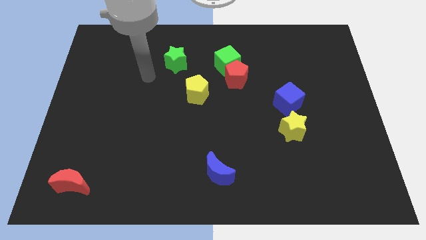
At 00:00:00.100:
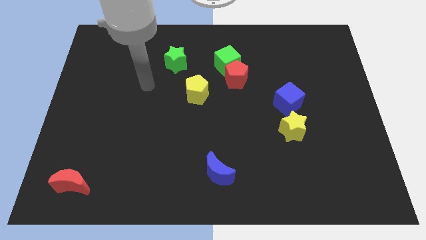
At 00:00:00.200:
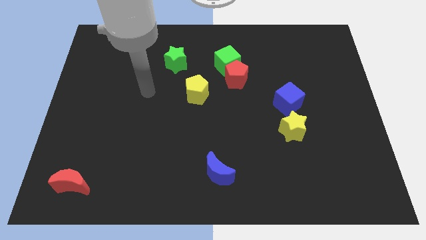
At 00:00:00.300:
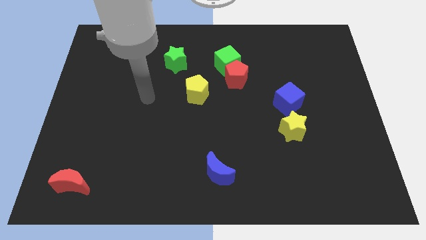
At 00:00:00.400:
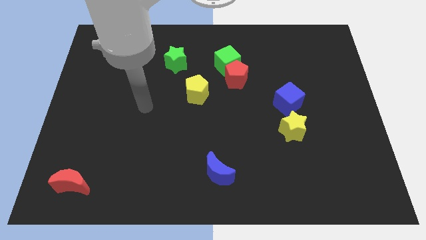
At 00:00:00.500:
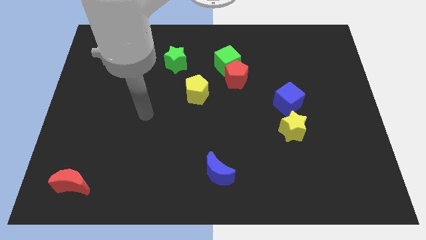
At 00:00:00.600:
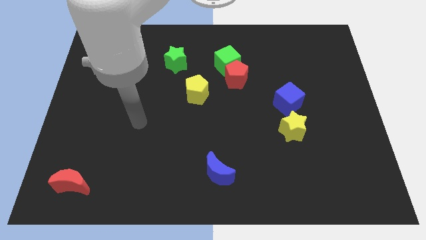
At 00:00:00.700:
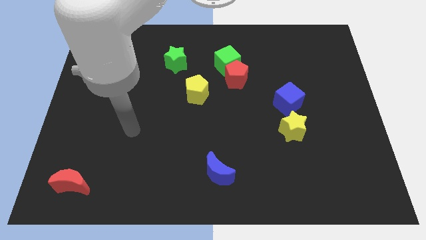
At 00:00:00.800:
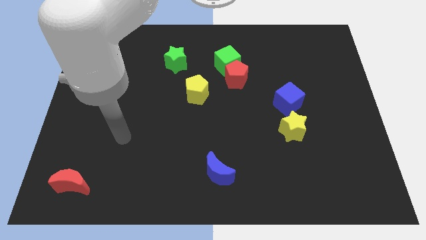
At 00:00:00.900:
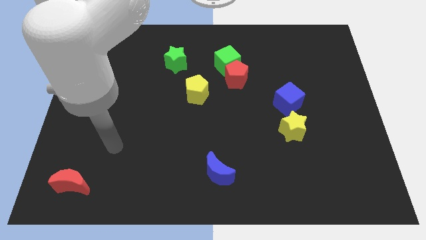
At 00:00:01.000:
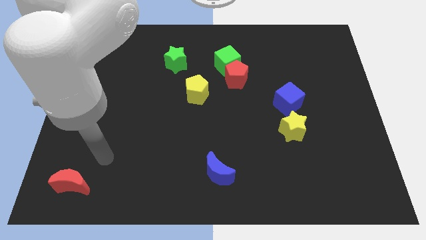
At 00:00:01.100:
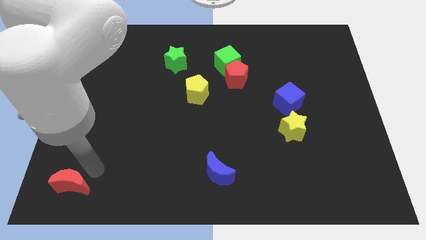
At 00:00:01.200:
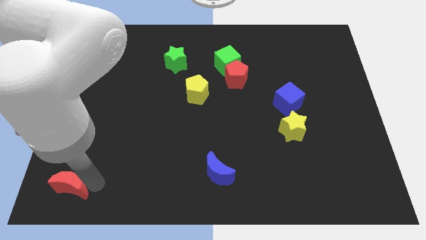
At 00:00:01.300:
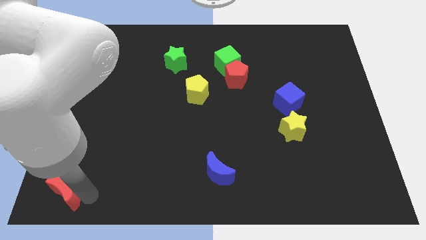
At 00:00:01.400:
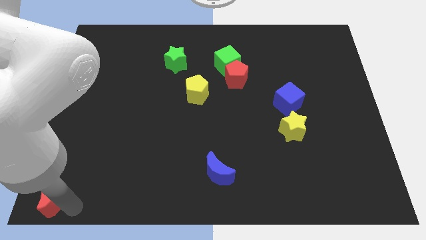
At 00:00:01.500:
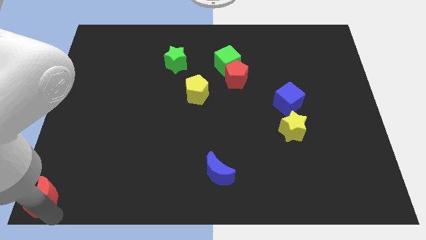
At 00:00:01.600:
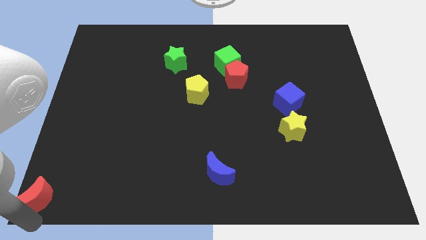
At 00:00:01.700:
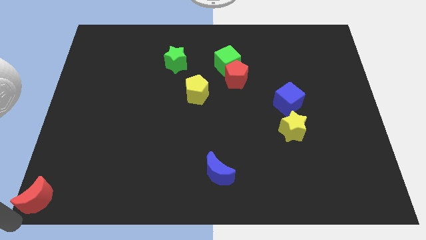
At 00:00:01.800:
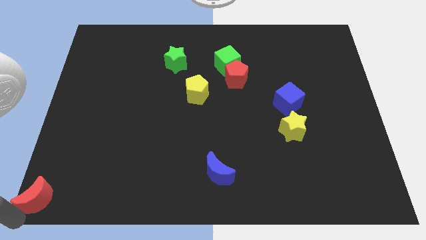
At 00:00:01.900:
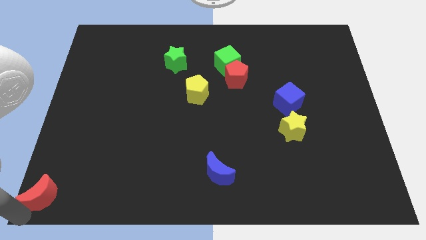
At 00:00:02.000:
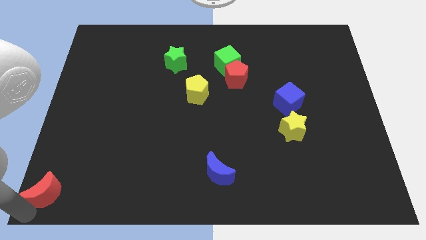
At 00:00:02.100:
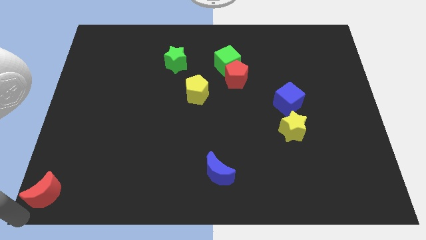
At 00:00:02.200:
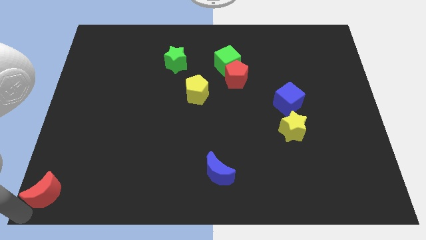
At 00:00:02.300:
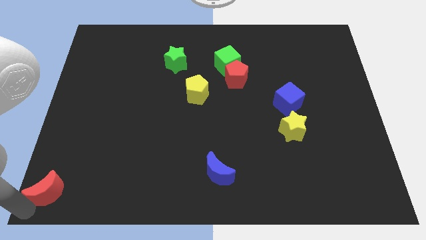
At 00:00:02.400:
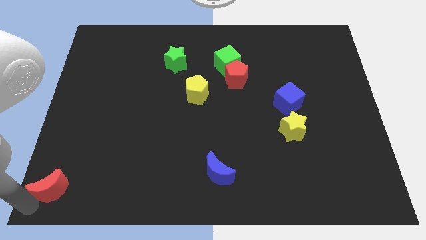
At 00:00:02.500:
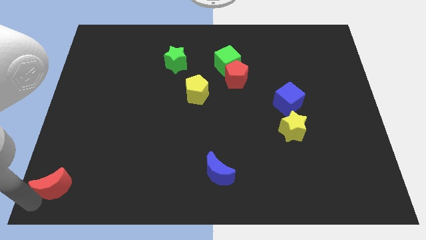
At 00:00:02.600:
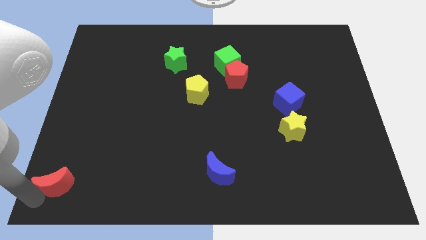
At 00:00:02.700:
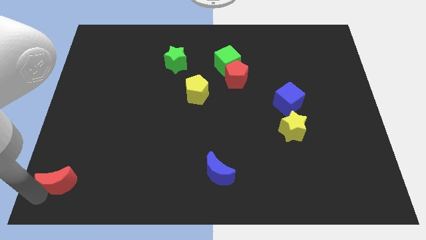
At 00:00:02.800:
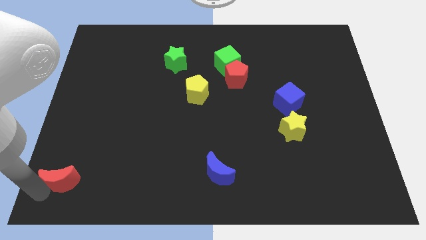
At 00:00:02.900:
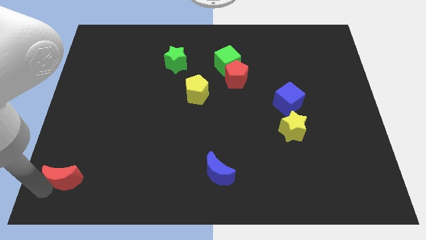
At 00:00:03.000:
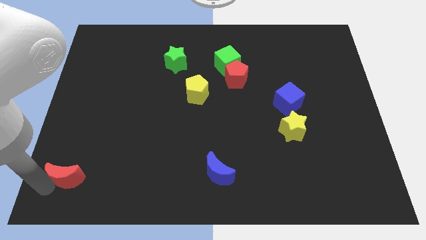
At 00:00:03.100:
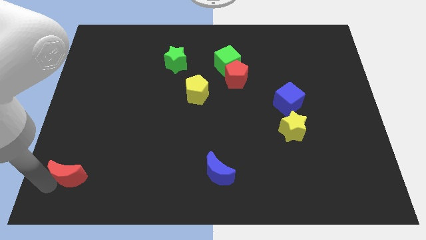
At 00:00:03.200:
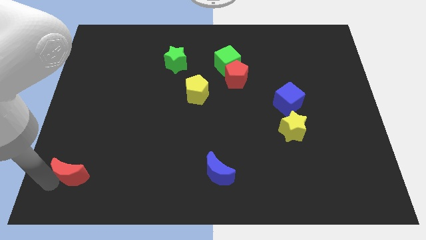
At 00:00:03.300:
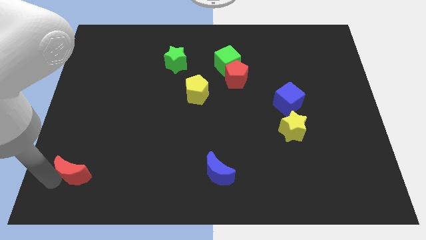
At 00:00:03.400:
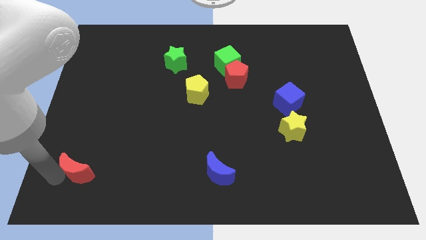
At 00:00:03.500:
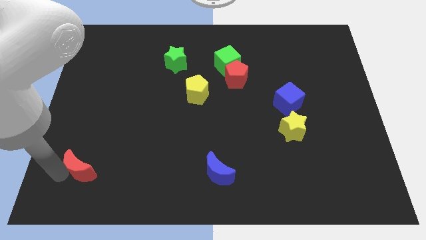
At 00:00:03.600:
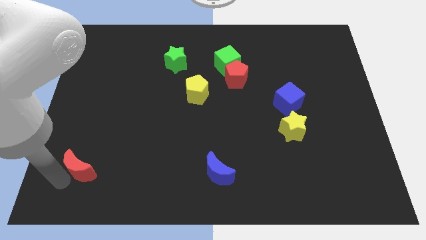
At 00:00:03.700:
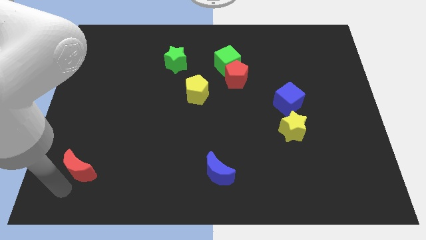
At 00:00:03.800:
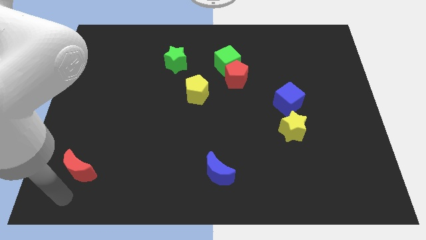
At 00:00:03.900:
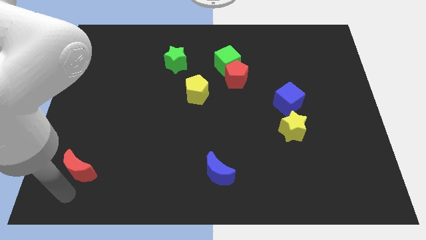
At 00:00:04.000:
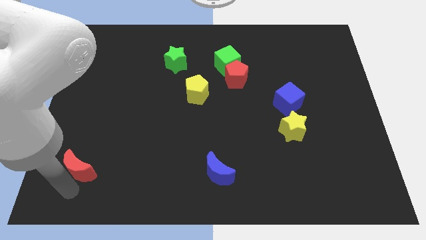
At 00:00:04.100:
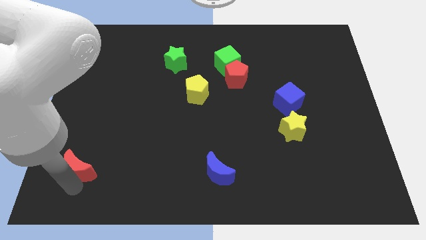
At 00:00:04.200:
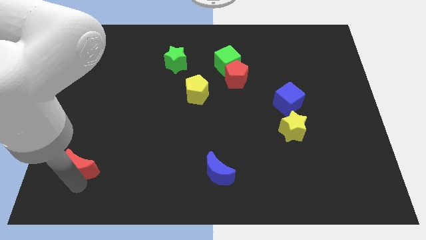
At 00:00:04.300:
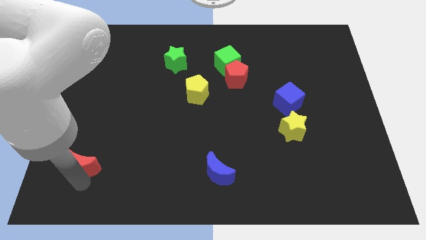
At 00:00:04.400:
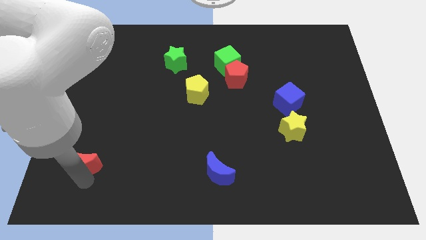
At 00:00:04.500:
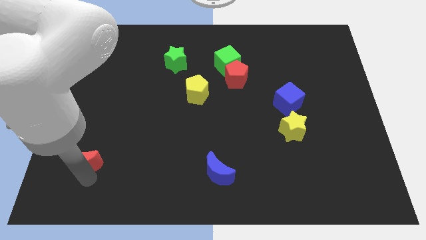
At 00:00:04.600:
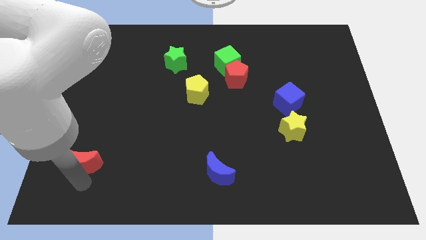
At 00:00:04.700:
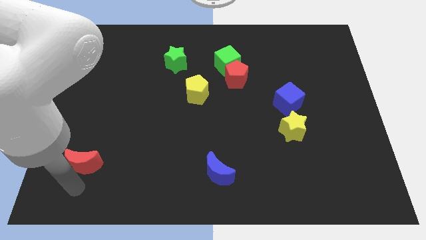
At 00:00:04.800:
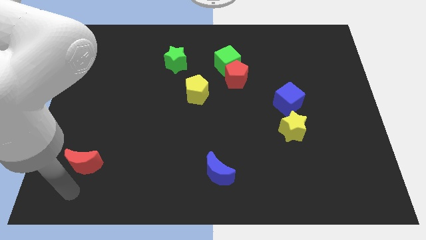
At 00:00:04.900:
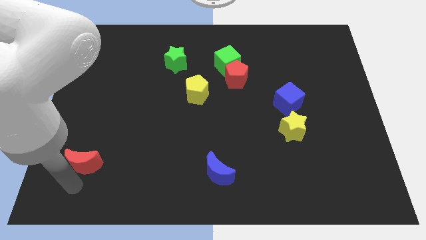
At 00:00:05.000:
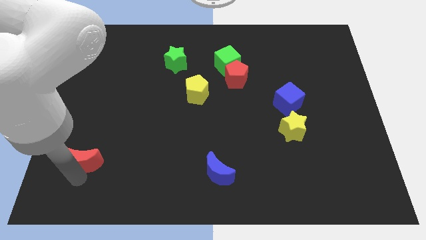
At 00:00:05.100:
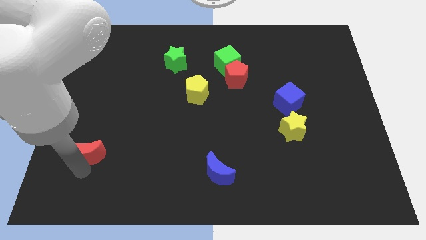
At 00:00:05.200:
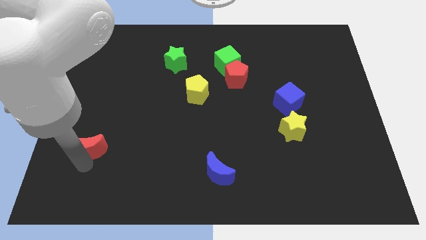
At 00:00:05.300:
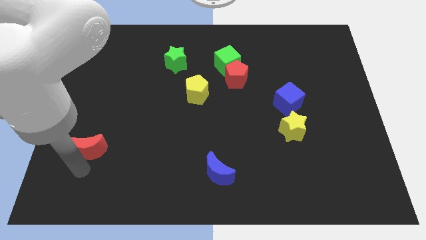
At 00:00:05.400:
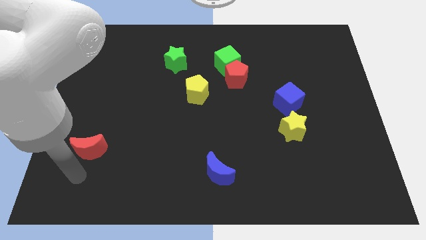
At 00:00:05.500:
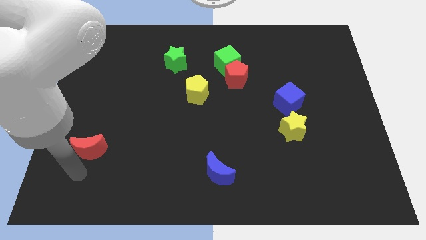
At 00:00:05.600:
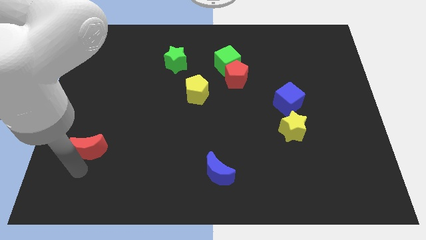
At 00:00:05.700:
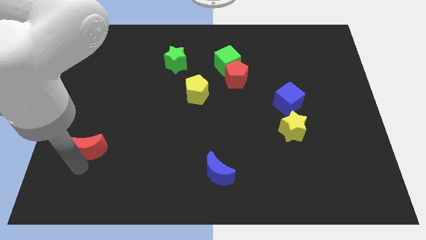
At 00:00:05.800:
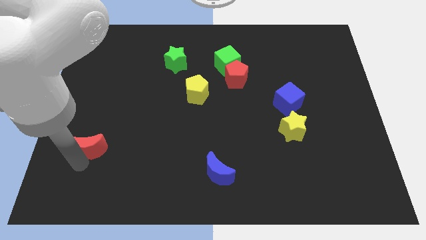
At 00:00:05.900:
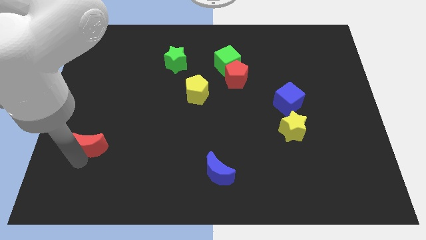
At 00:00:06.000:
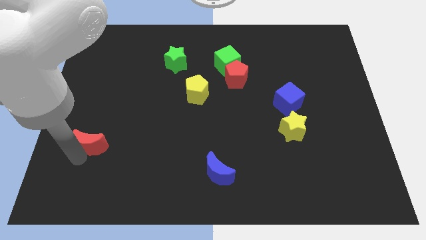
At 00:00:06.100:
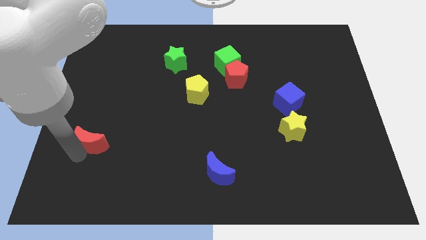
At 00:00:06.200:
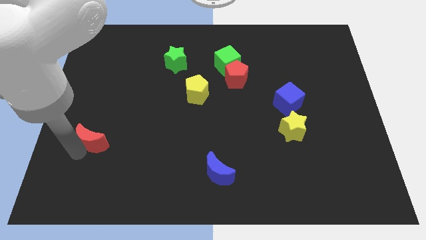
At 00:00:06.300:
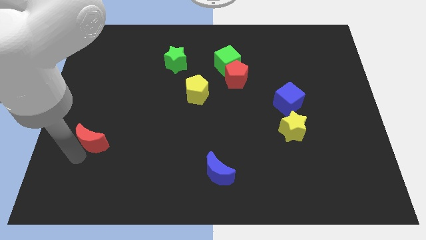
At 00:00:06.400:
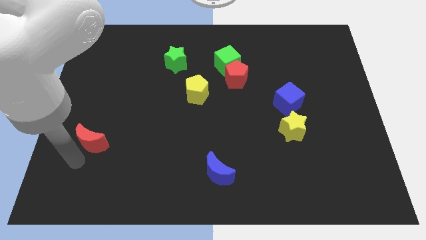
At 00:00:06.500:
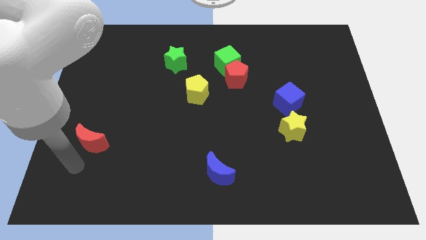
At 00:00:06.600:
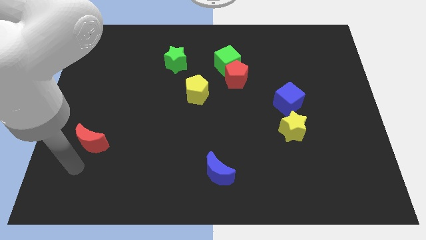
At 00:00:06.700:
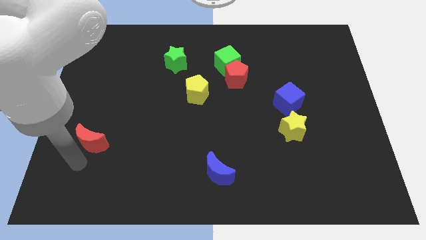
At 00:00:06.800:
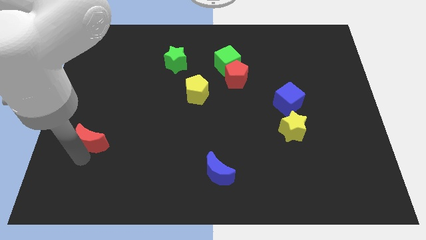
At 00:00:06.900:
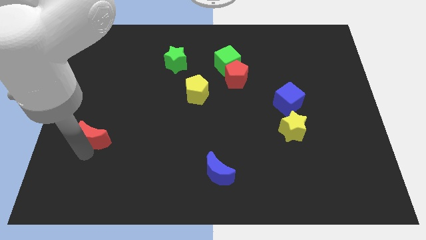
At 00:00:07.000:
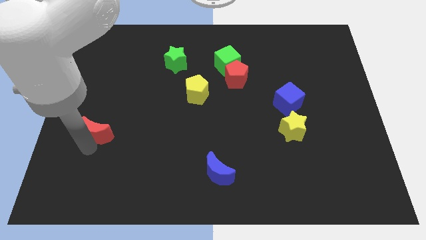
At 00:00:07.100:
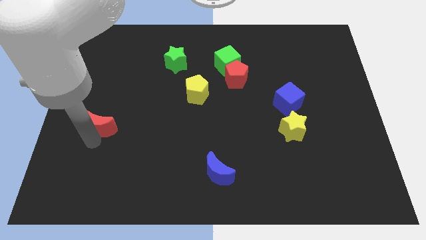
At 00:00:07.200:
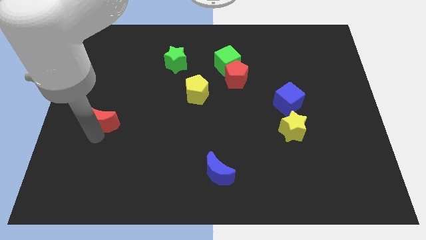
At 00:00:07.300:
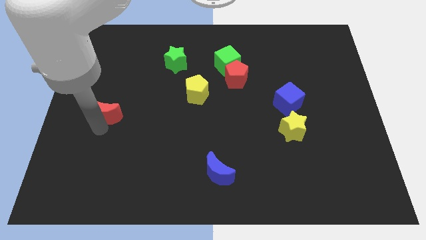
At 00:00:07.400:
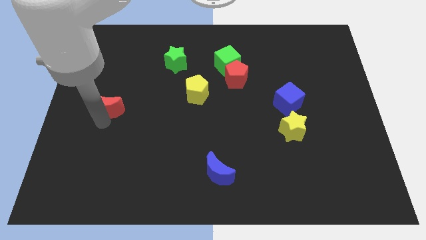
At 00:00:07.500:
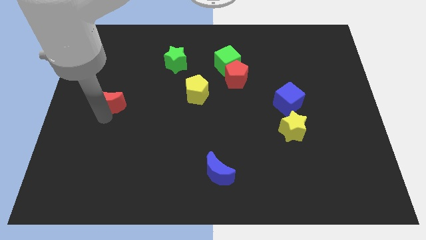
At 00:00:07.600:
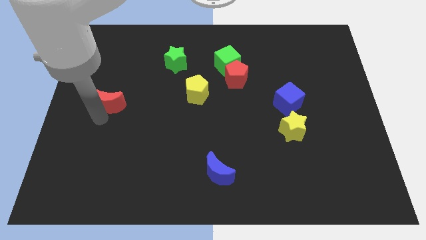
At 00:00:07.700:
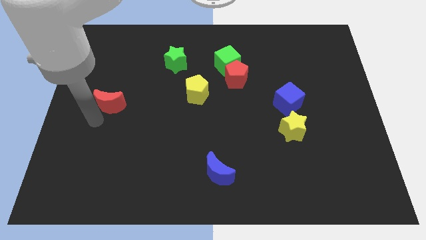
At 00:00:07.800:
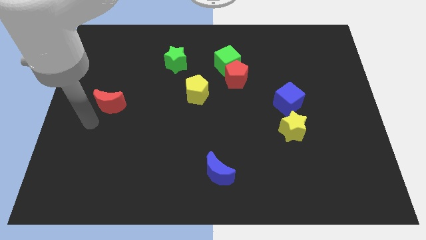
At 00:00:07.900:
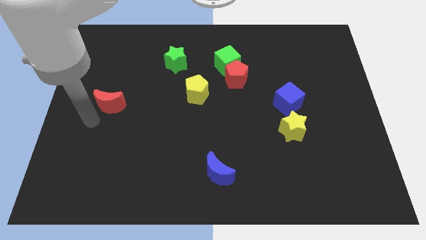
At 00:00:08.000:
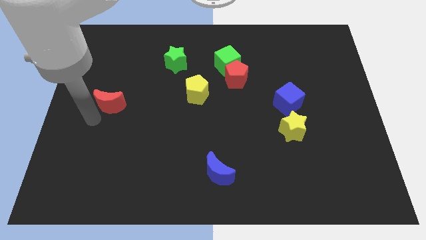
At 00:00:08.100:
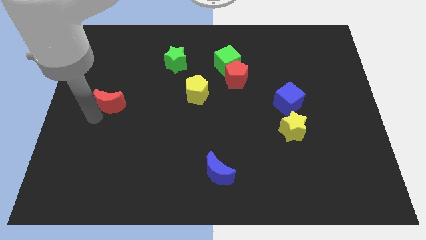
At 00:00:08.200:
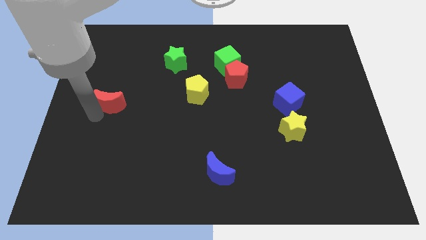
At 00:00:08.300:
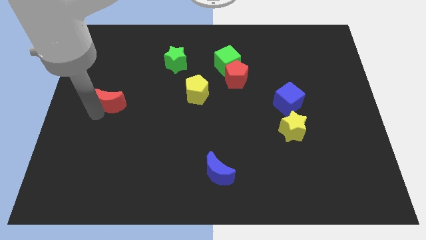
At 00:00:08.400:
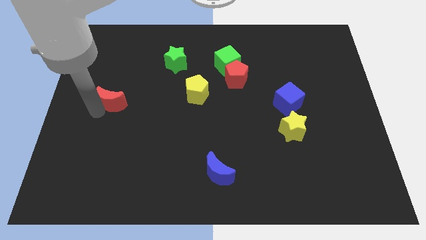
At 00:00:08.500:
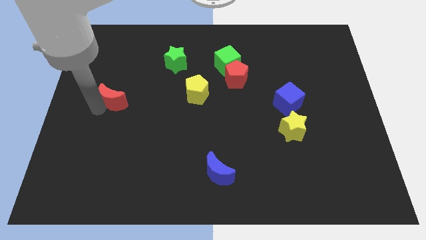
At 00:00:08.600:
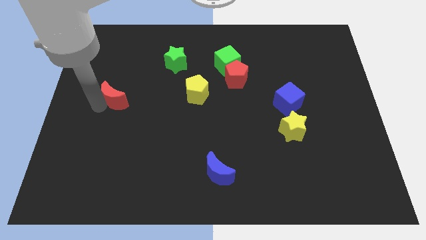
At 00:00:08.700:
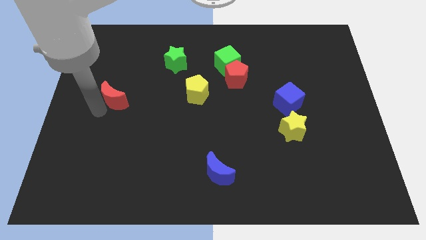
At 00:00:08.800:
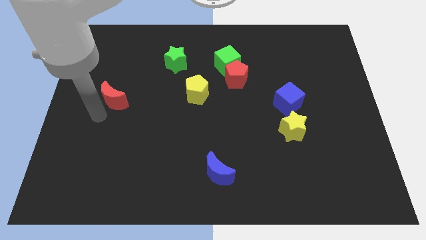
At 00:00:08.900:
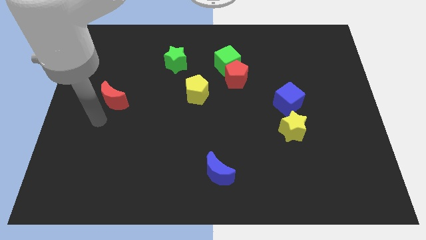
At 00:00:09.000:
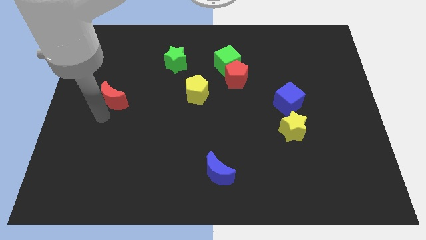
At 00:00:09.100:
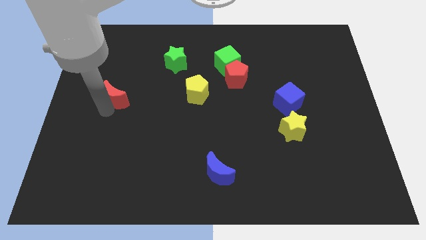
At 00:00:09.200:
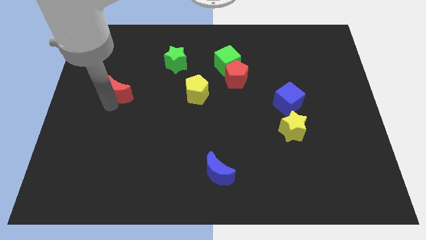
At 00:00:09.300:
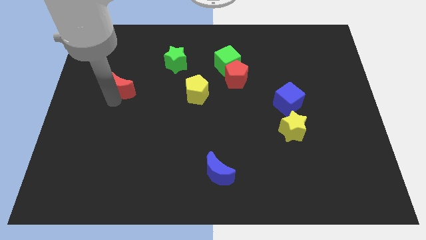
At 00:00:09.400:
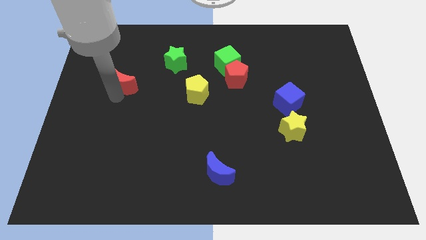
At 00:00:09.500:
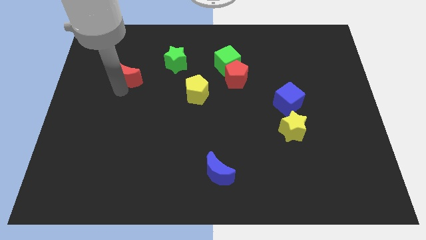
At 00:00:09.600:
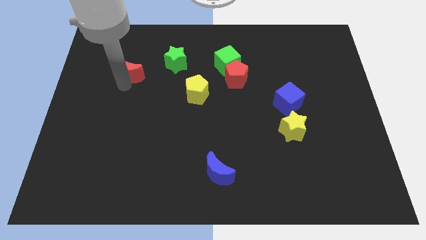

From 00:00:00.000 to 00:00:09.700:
put the red moon left of the green star
